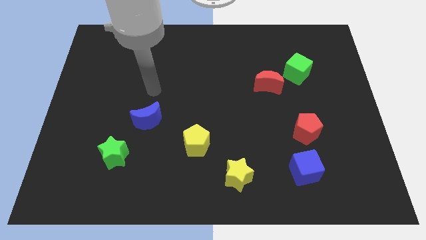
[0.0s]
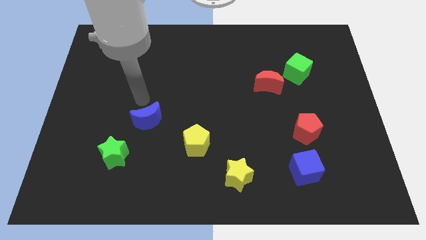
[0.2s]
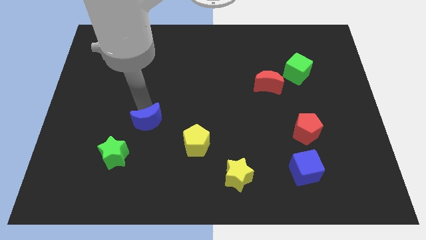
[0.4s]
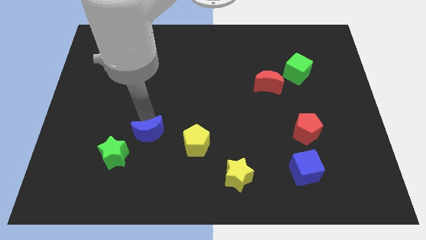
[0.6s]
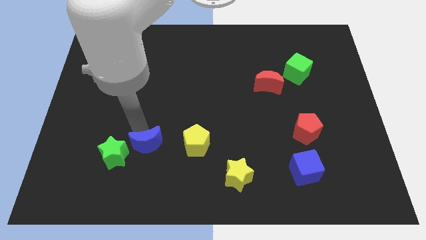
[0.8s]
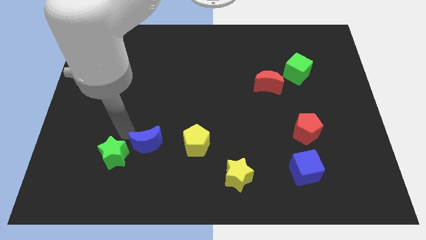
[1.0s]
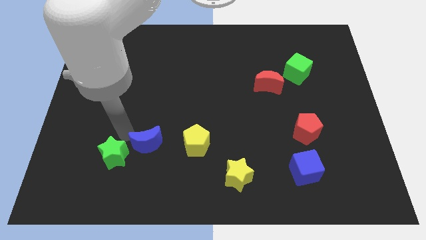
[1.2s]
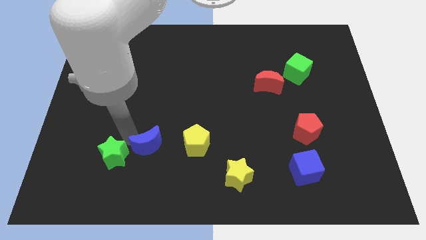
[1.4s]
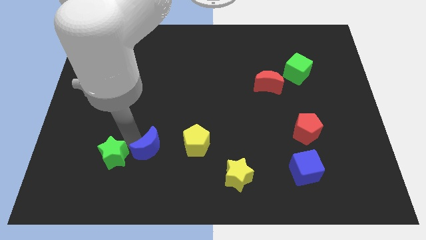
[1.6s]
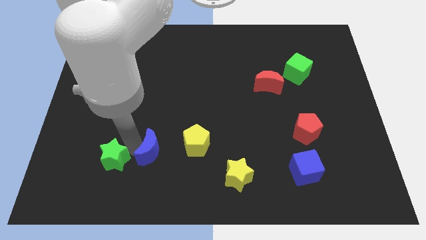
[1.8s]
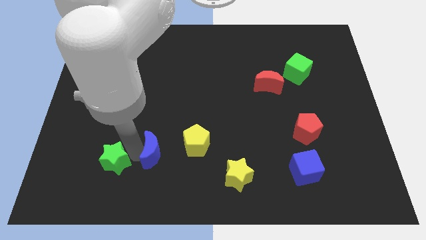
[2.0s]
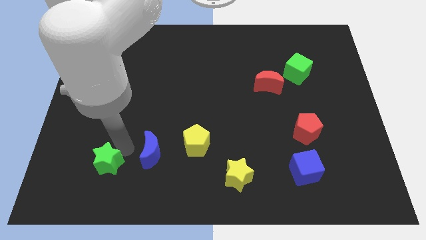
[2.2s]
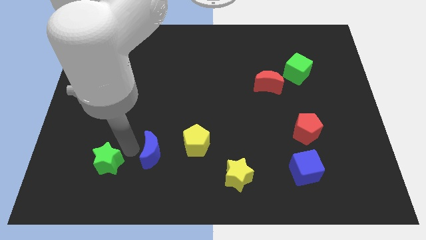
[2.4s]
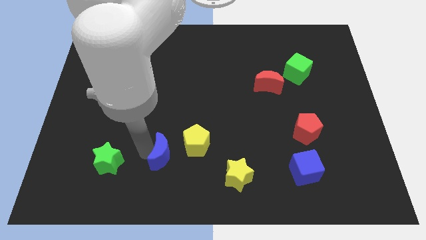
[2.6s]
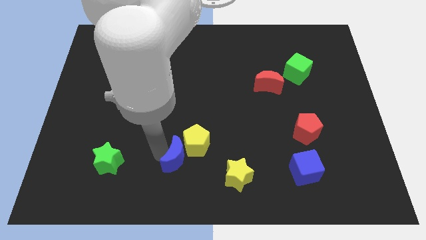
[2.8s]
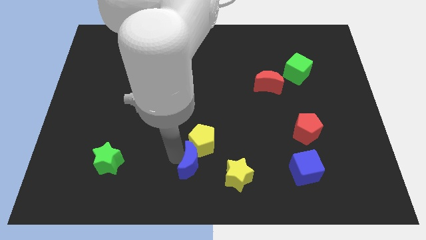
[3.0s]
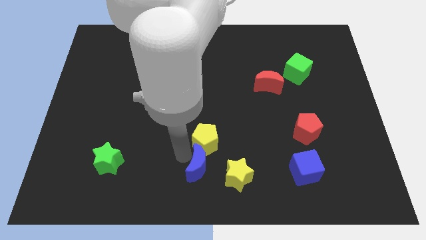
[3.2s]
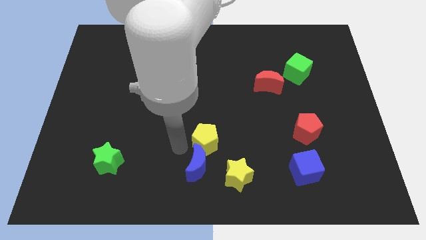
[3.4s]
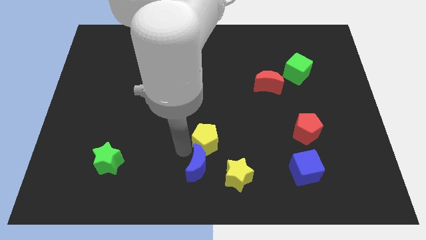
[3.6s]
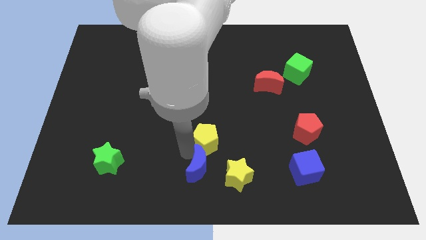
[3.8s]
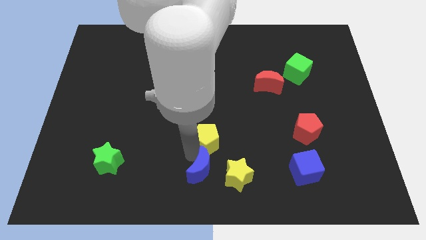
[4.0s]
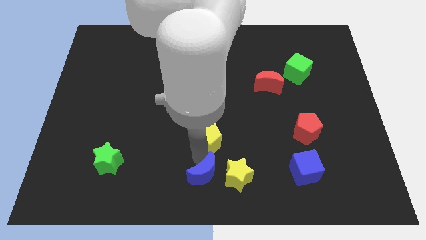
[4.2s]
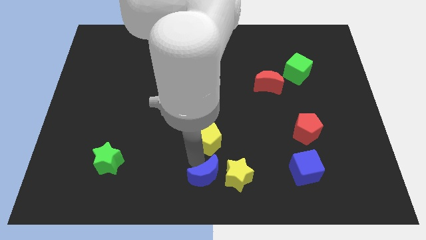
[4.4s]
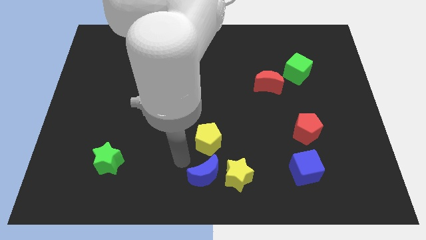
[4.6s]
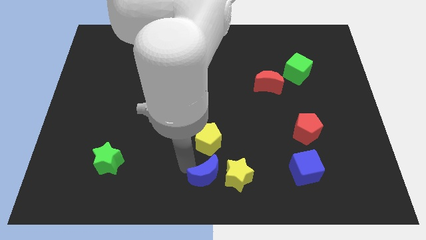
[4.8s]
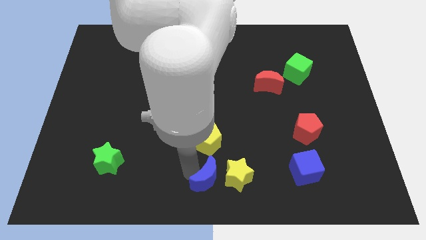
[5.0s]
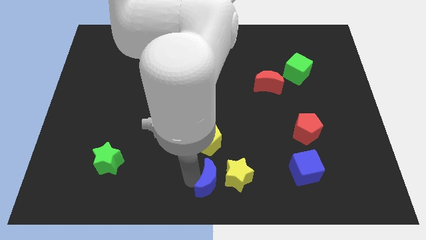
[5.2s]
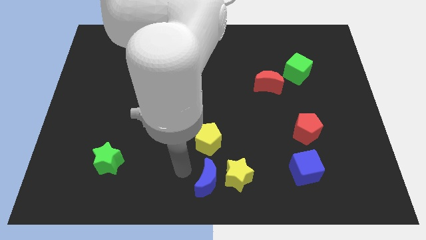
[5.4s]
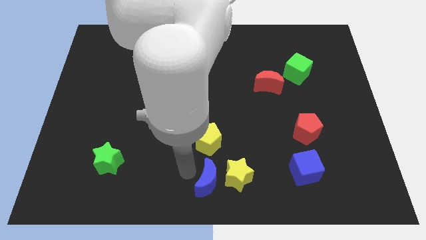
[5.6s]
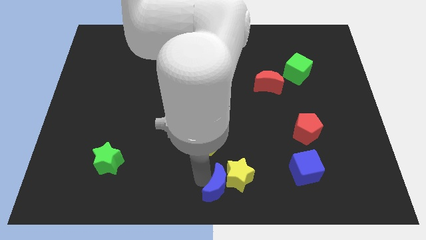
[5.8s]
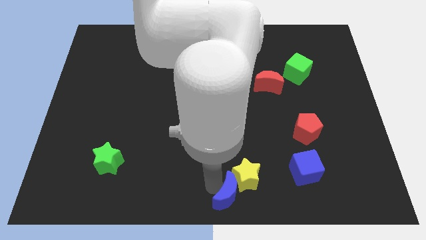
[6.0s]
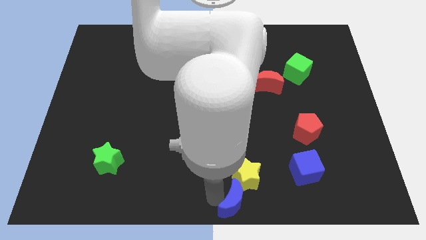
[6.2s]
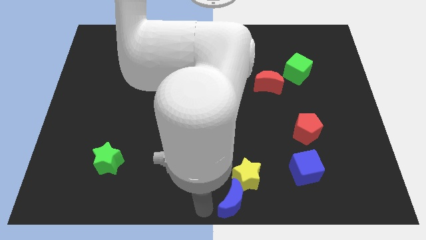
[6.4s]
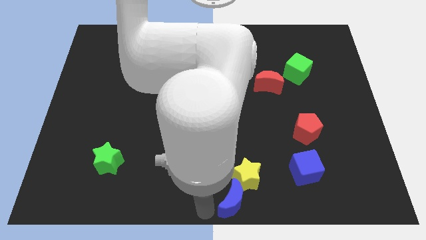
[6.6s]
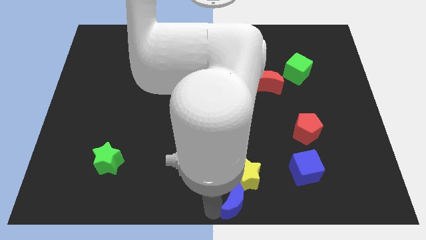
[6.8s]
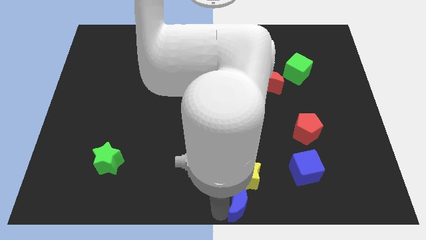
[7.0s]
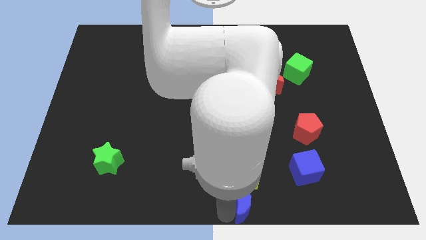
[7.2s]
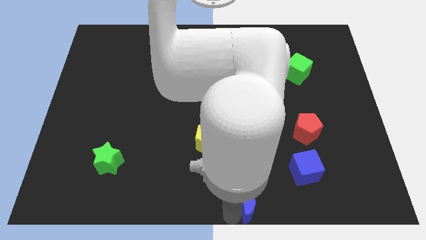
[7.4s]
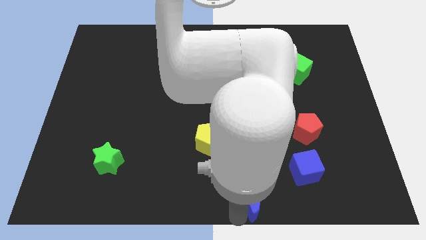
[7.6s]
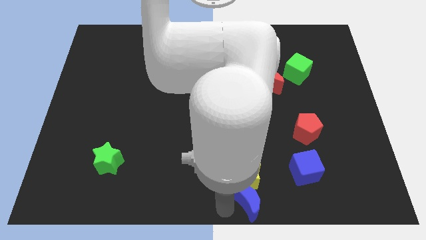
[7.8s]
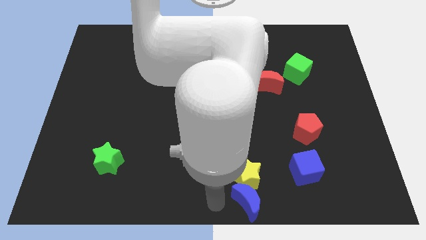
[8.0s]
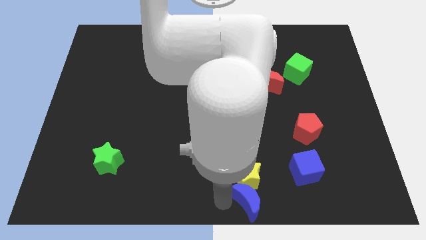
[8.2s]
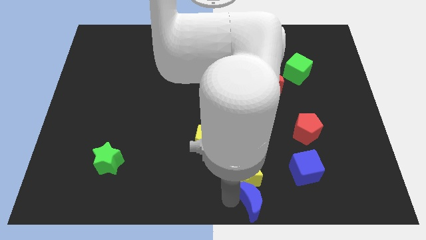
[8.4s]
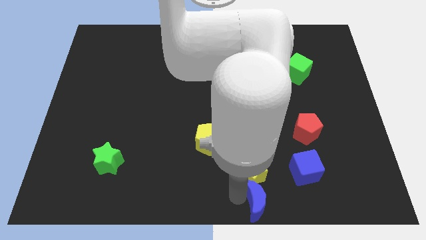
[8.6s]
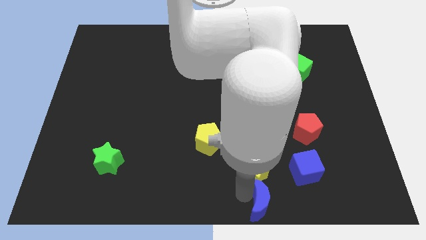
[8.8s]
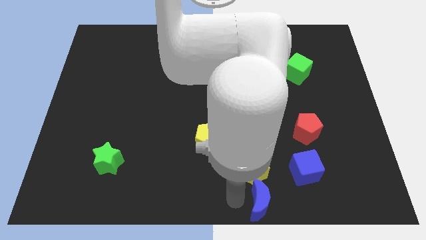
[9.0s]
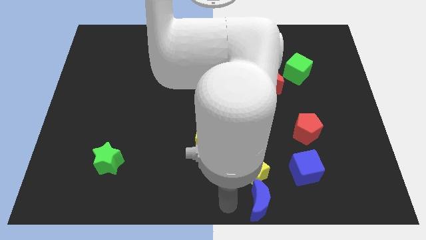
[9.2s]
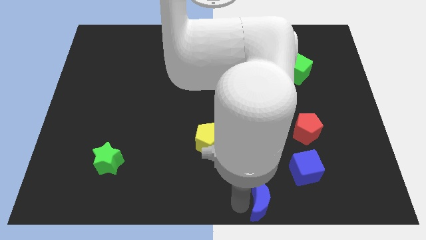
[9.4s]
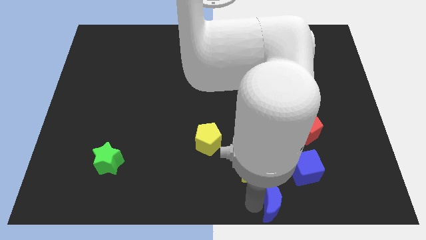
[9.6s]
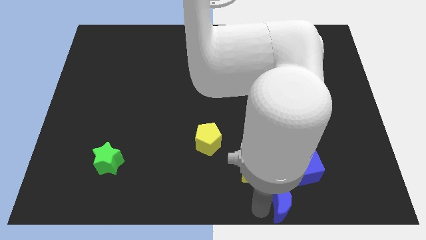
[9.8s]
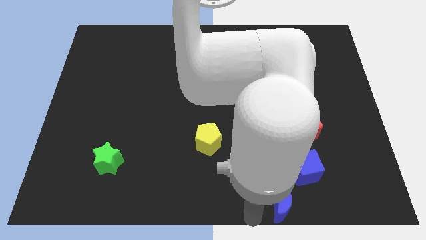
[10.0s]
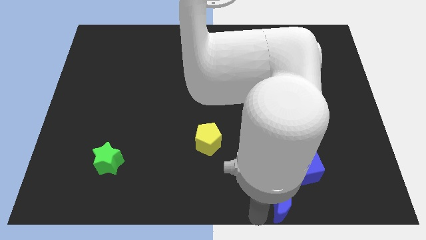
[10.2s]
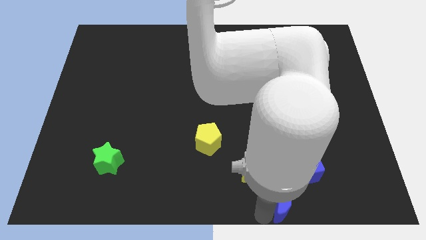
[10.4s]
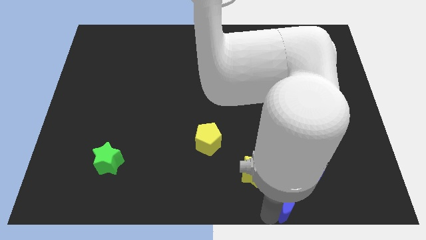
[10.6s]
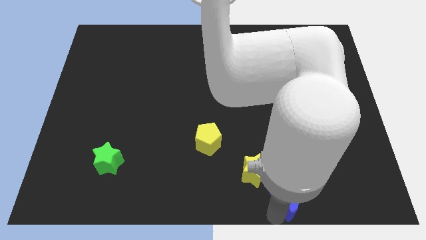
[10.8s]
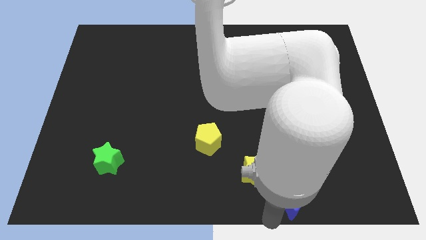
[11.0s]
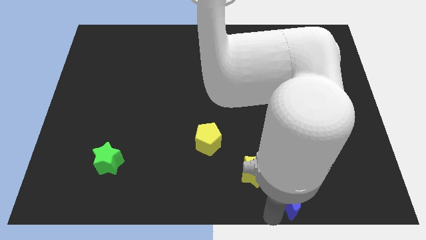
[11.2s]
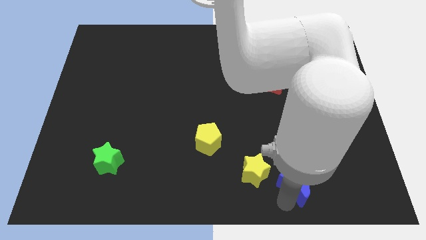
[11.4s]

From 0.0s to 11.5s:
put the blue moon to the bottom side of the red pentagon

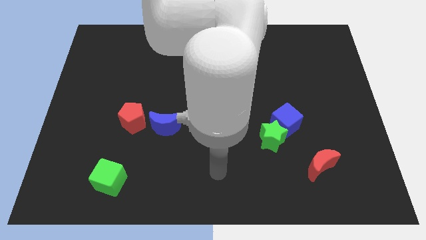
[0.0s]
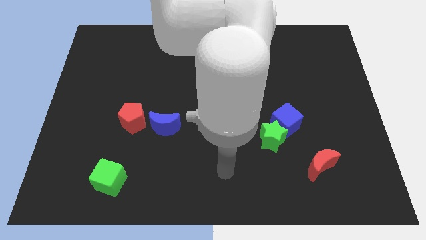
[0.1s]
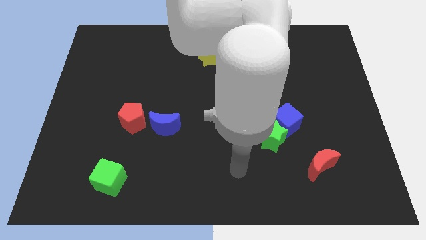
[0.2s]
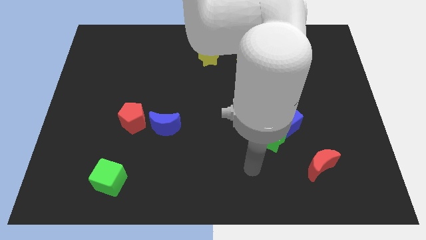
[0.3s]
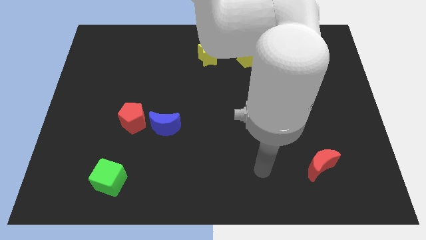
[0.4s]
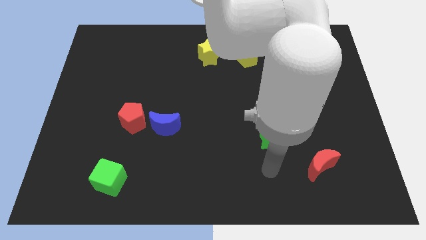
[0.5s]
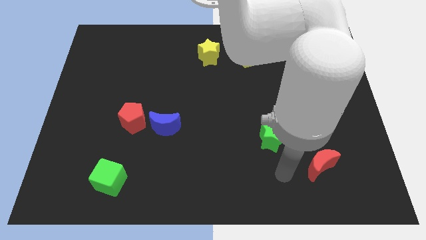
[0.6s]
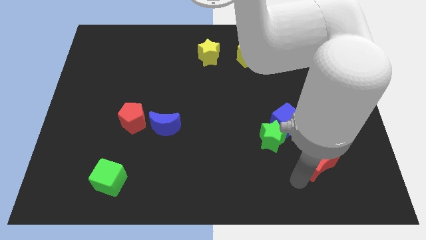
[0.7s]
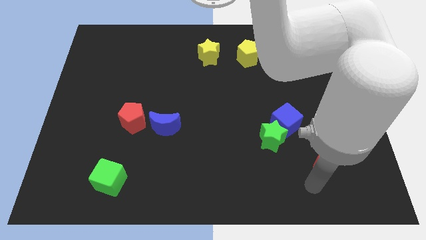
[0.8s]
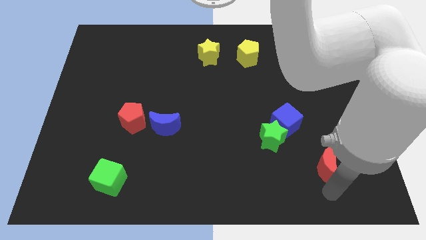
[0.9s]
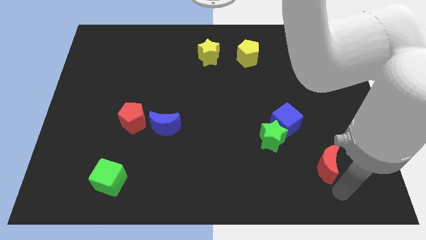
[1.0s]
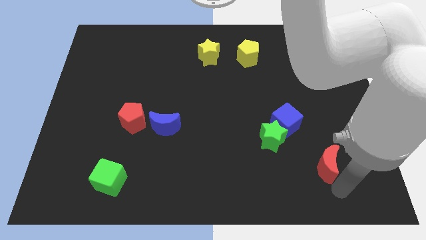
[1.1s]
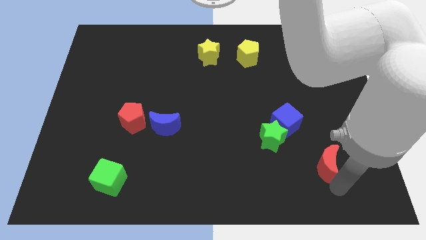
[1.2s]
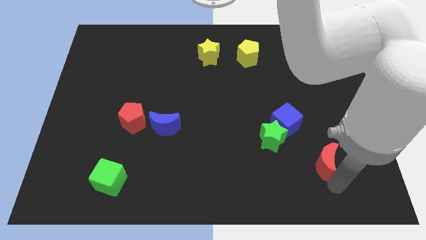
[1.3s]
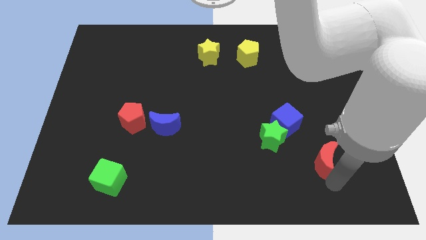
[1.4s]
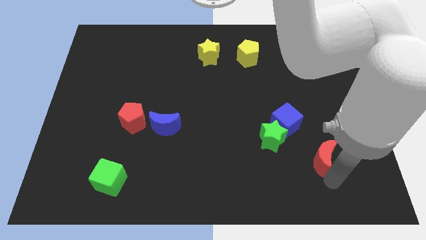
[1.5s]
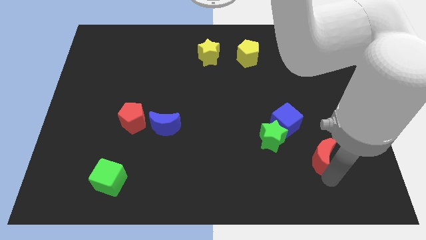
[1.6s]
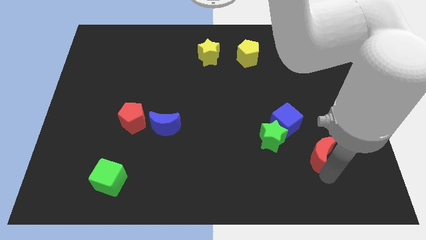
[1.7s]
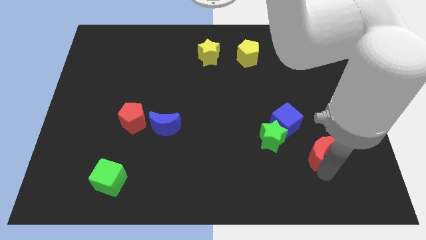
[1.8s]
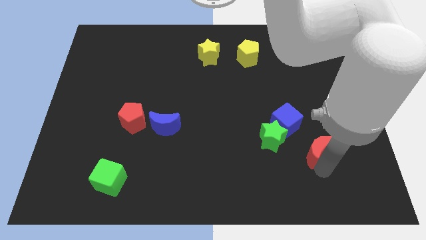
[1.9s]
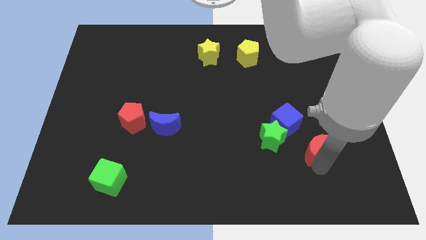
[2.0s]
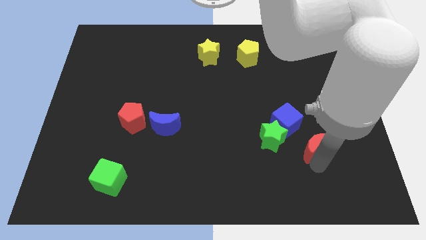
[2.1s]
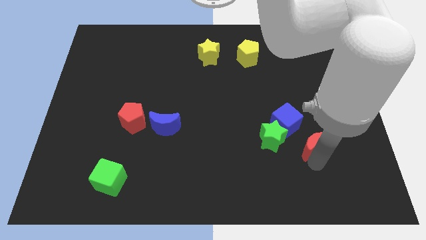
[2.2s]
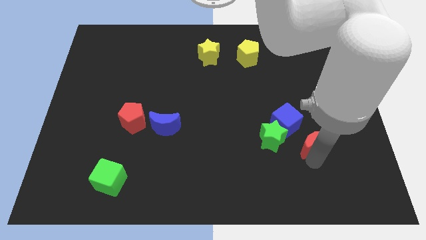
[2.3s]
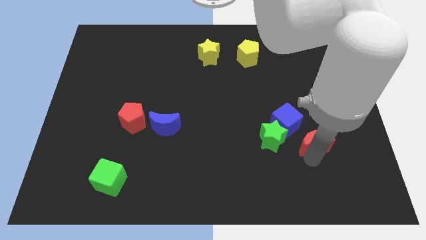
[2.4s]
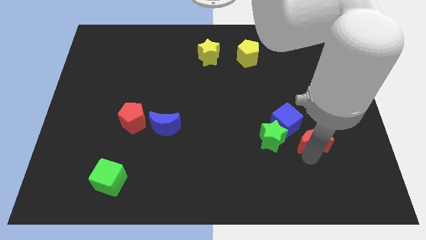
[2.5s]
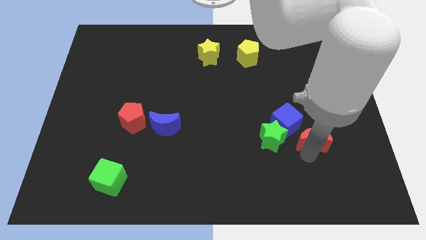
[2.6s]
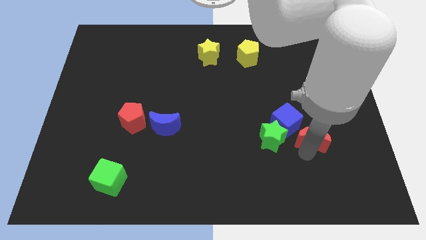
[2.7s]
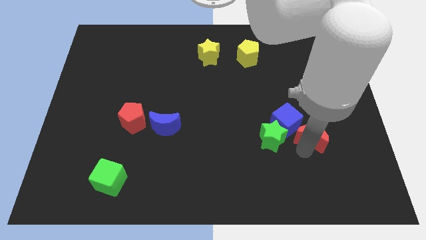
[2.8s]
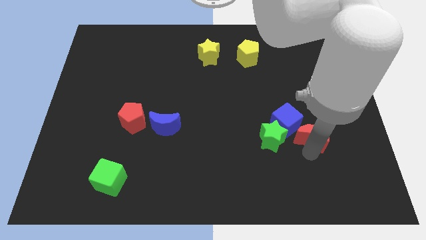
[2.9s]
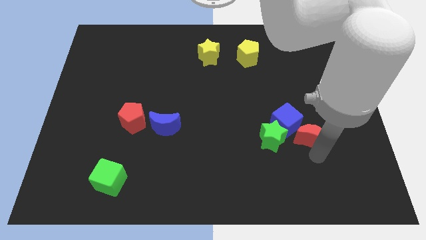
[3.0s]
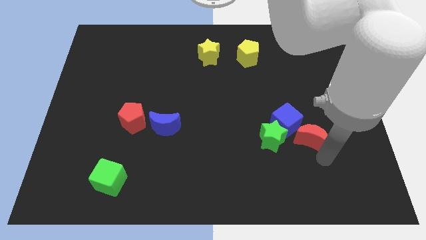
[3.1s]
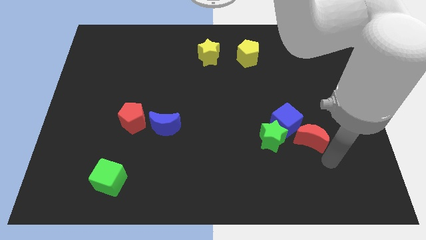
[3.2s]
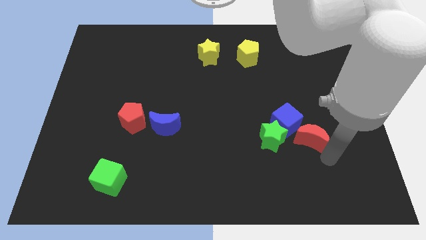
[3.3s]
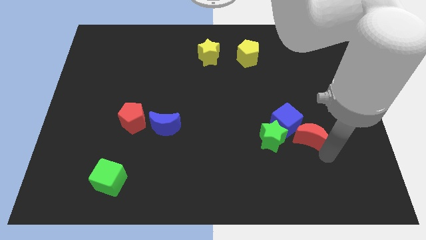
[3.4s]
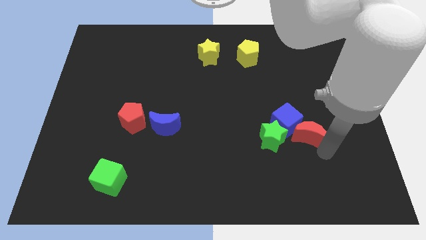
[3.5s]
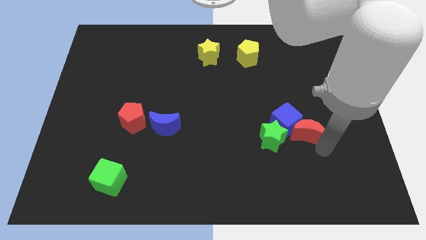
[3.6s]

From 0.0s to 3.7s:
slide the red moon diagonally up and to the right of the green star
